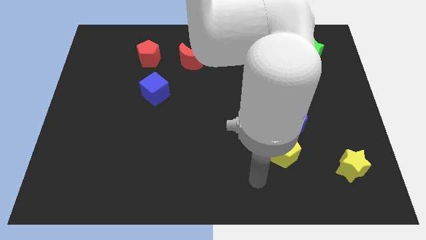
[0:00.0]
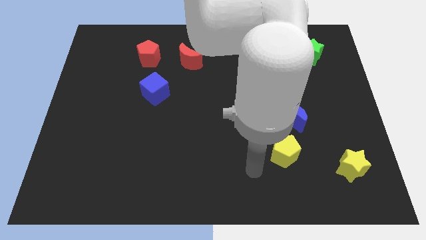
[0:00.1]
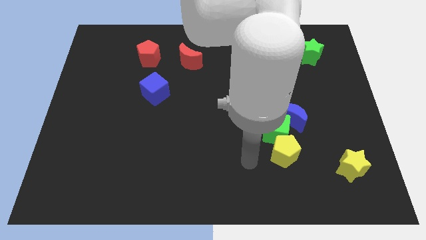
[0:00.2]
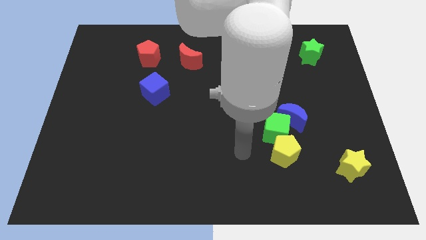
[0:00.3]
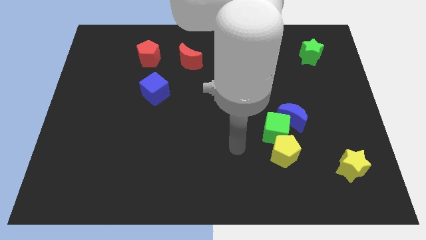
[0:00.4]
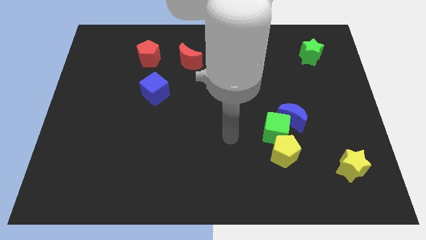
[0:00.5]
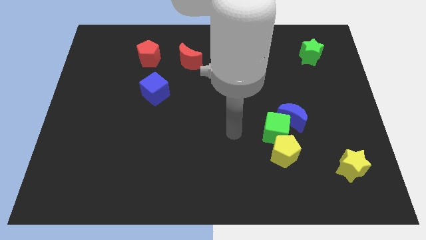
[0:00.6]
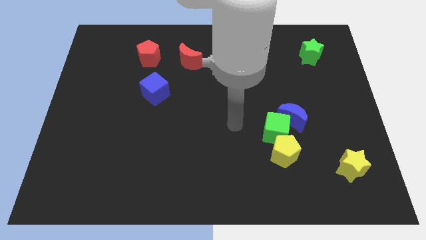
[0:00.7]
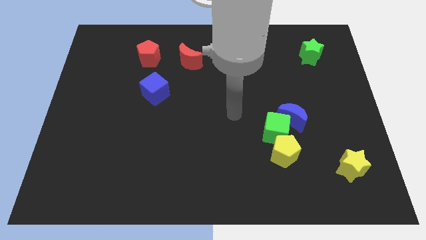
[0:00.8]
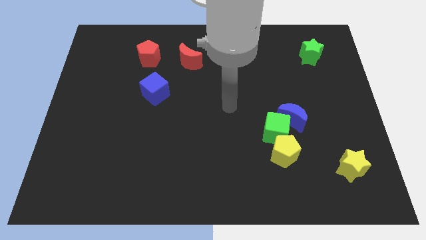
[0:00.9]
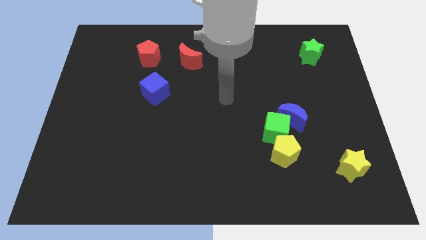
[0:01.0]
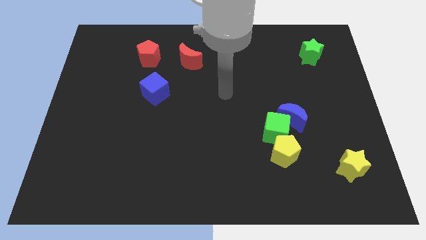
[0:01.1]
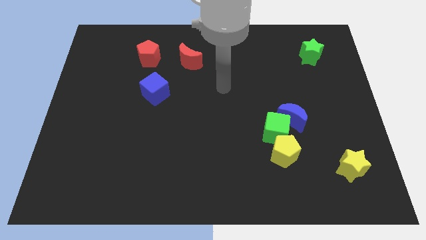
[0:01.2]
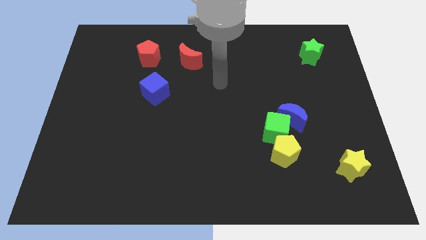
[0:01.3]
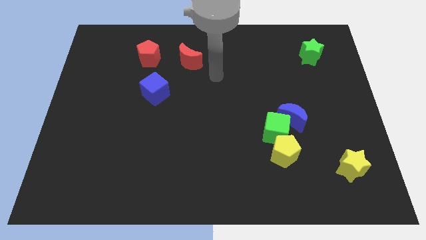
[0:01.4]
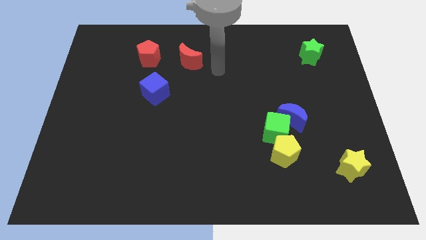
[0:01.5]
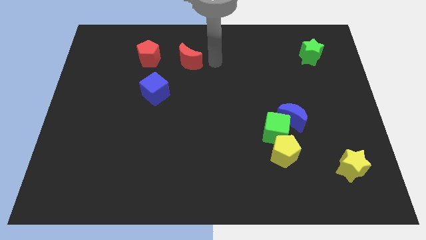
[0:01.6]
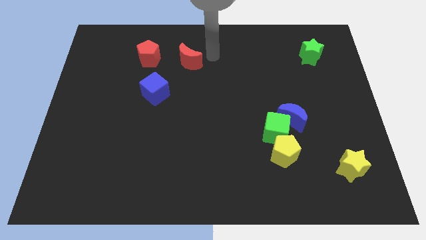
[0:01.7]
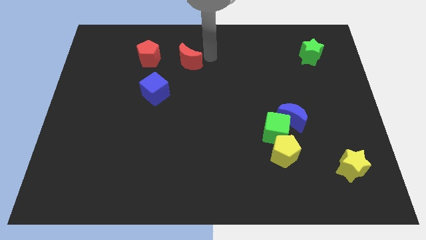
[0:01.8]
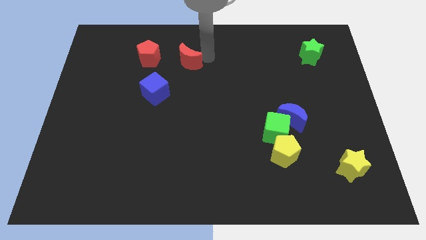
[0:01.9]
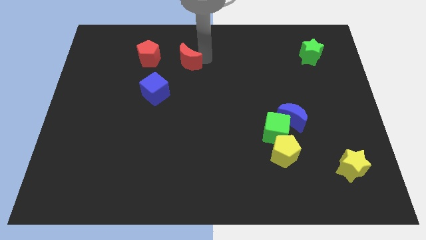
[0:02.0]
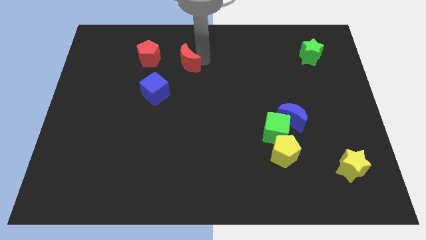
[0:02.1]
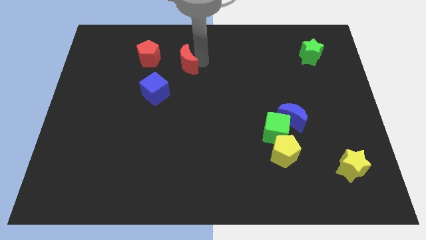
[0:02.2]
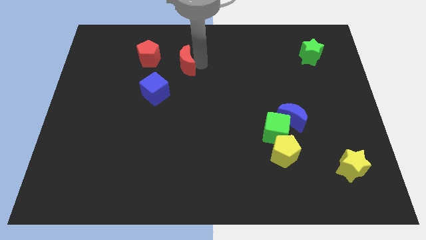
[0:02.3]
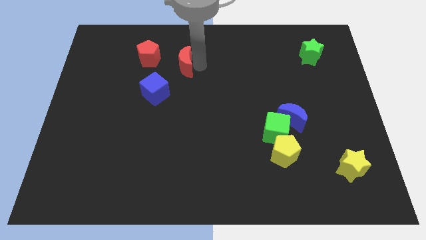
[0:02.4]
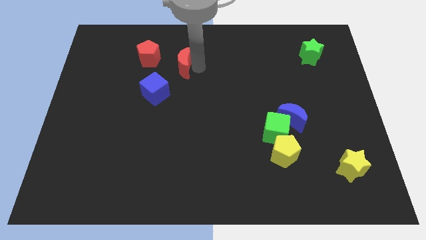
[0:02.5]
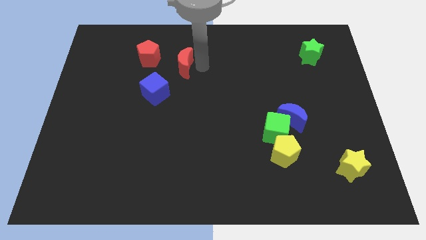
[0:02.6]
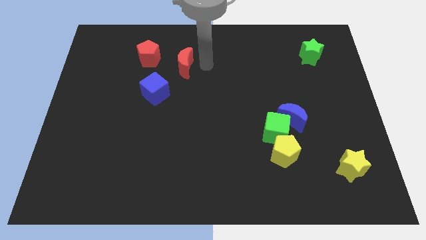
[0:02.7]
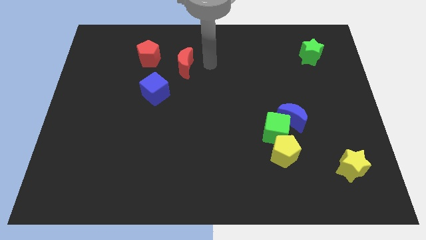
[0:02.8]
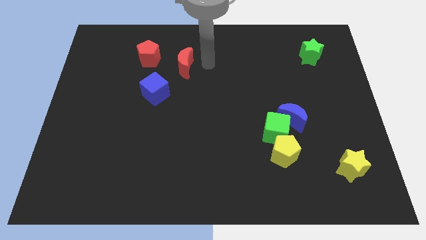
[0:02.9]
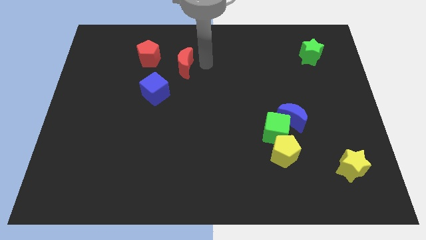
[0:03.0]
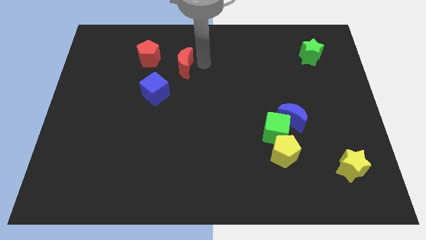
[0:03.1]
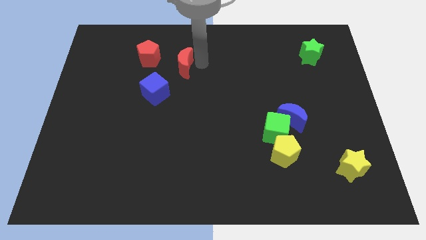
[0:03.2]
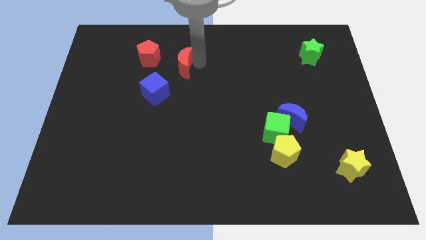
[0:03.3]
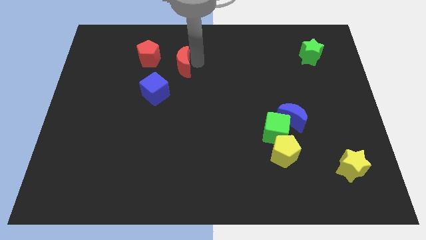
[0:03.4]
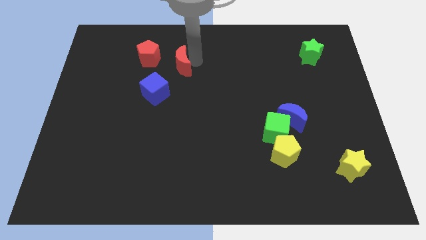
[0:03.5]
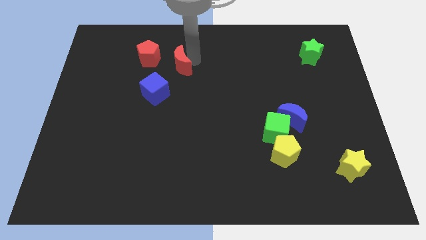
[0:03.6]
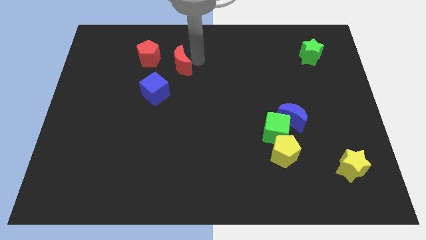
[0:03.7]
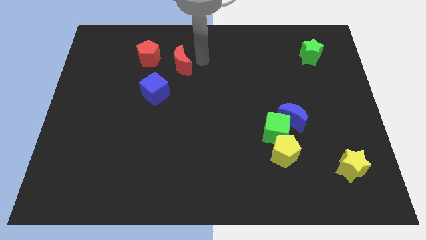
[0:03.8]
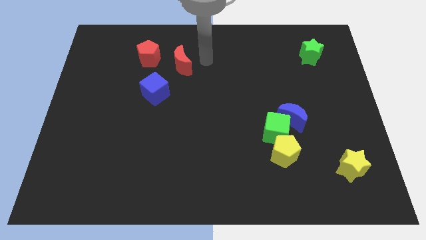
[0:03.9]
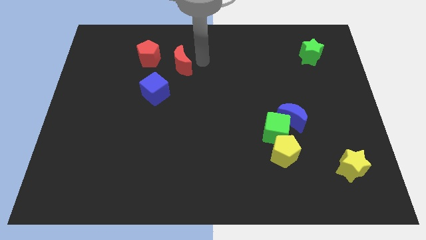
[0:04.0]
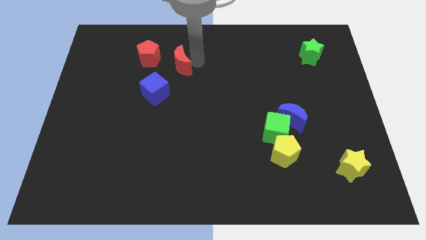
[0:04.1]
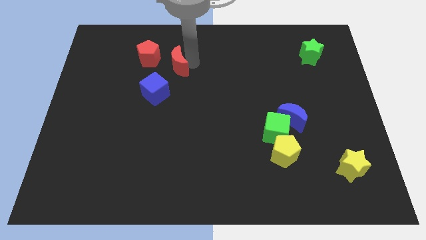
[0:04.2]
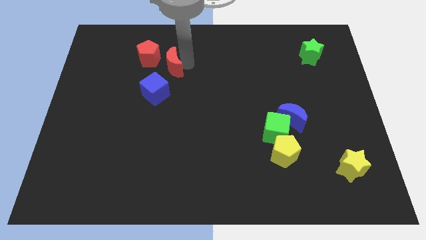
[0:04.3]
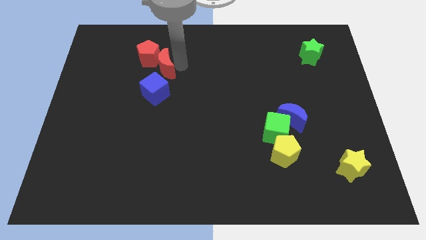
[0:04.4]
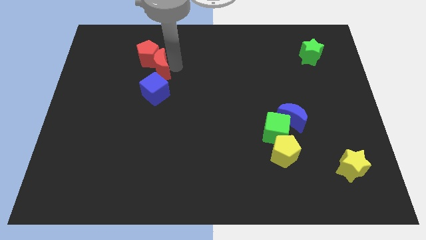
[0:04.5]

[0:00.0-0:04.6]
slide the red moon to the left somewhat

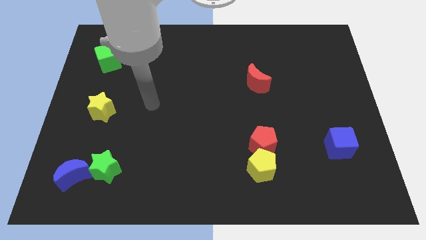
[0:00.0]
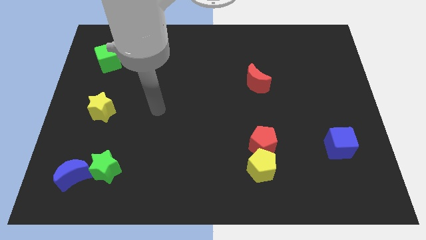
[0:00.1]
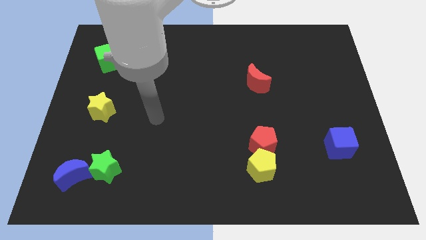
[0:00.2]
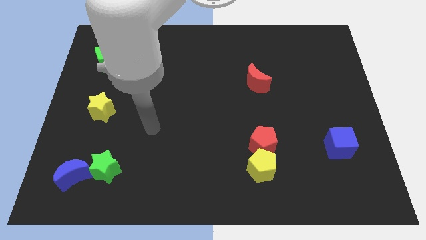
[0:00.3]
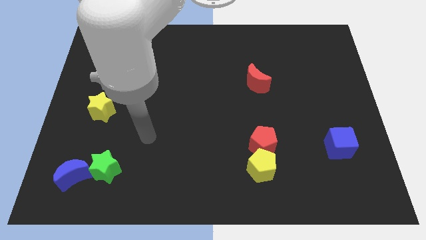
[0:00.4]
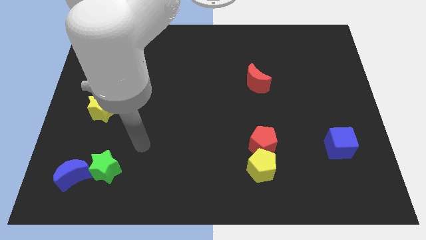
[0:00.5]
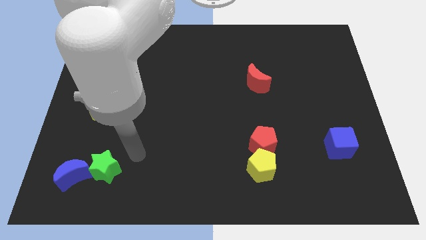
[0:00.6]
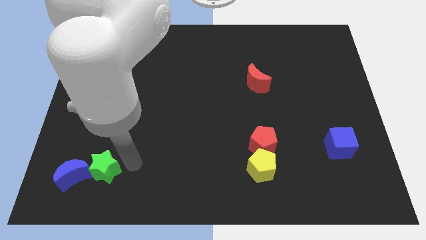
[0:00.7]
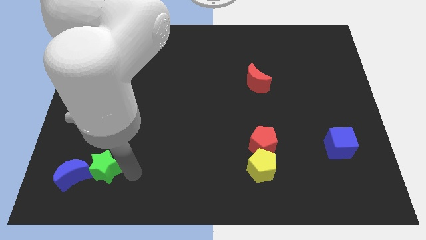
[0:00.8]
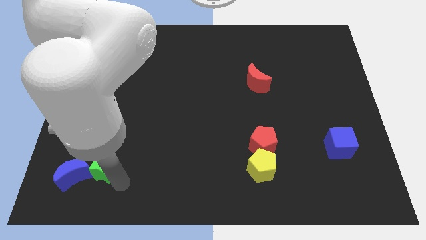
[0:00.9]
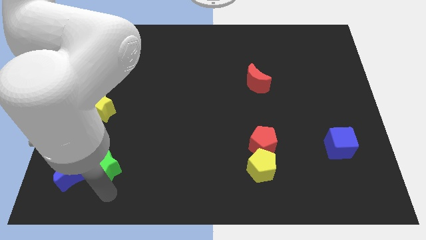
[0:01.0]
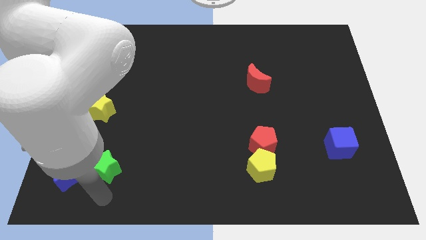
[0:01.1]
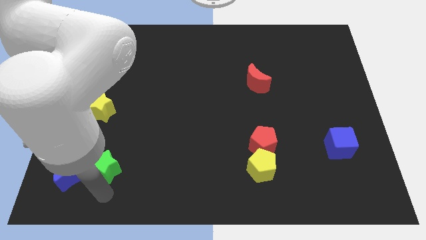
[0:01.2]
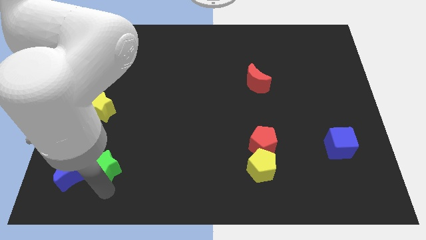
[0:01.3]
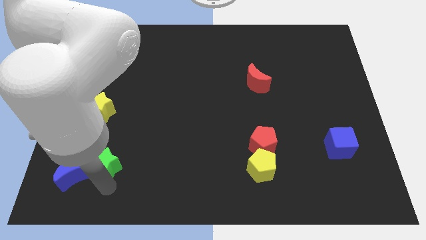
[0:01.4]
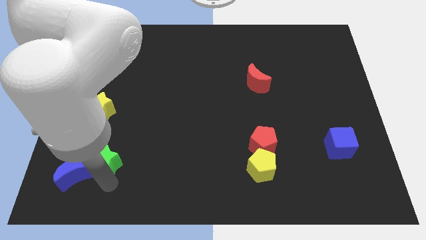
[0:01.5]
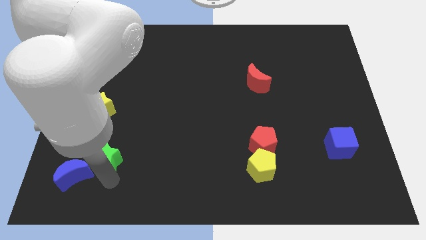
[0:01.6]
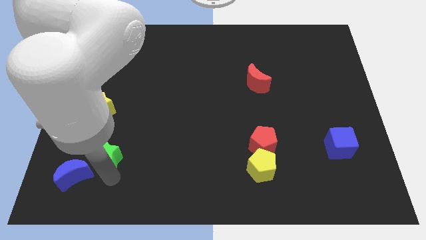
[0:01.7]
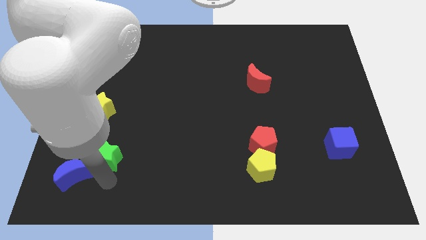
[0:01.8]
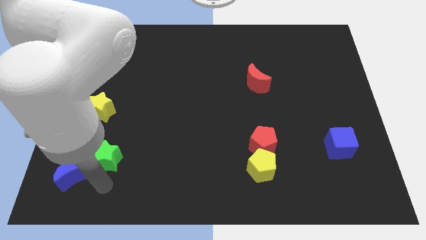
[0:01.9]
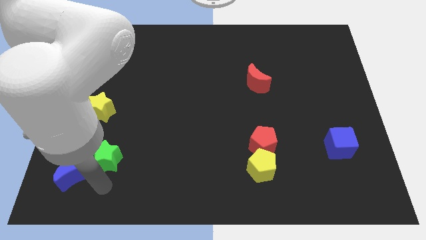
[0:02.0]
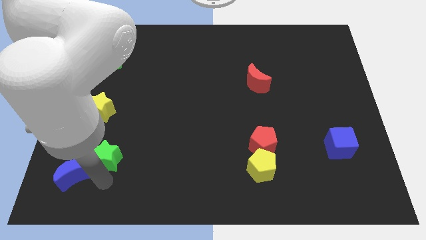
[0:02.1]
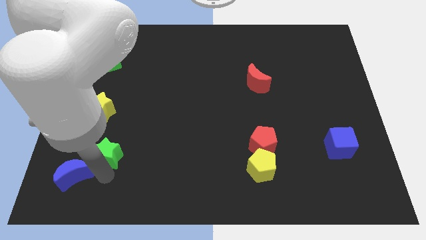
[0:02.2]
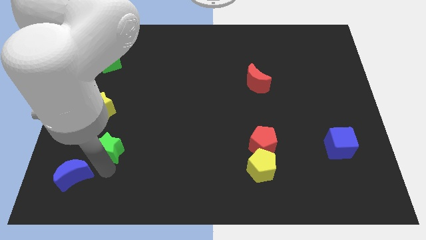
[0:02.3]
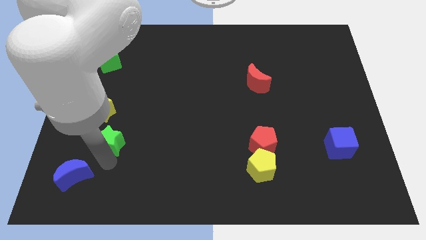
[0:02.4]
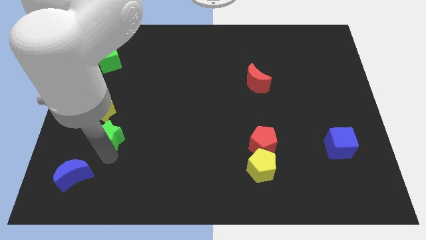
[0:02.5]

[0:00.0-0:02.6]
slightly push the green star upwards

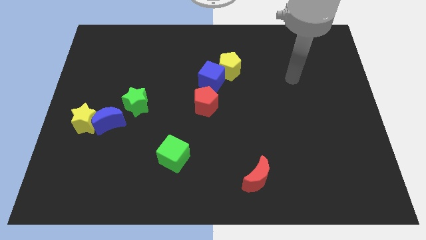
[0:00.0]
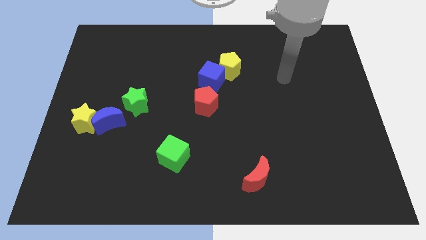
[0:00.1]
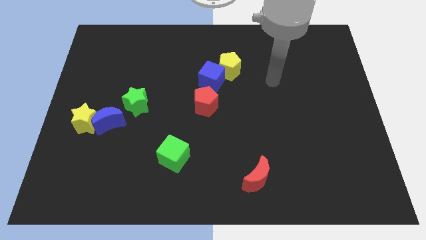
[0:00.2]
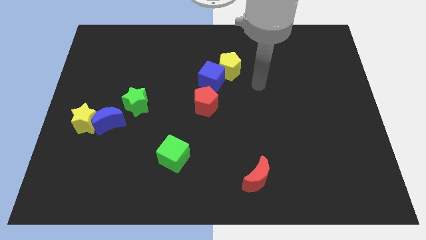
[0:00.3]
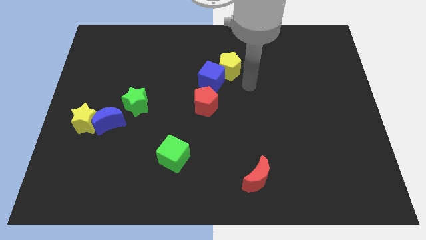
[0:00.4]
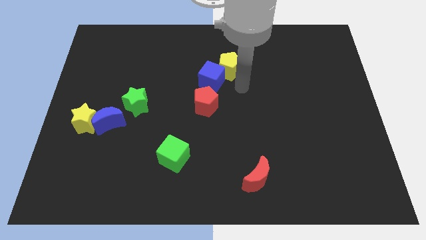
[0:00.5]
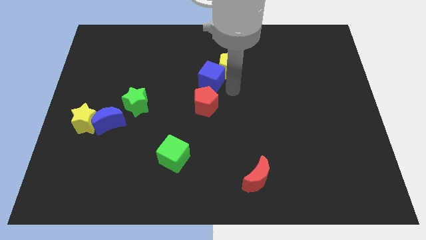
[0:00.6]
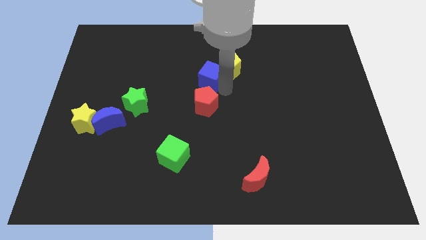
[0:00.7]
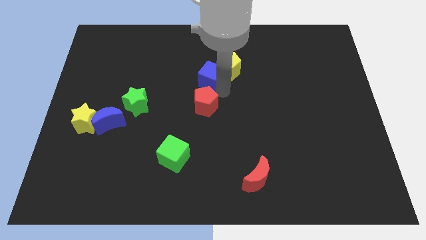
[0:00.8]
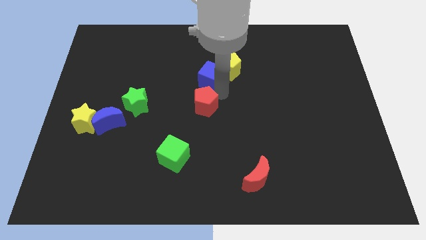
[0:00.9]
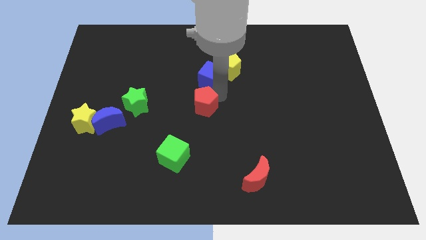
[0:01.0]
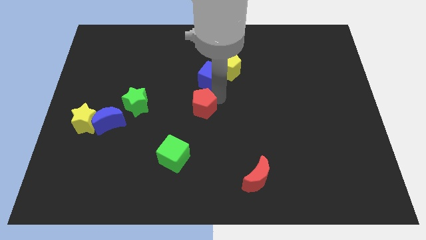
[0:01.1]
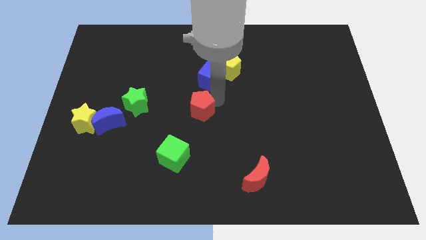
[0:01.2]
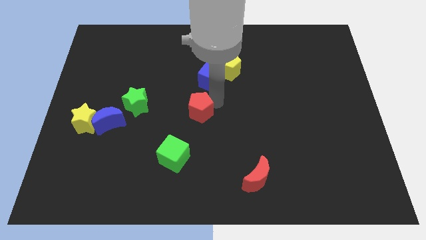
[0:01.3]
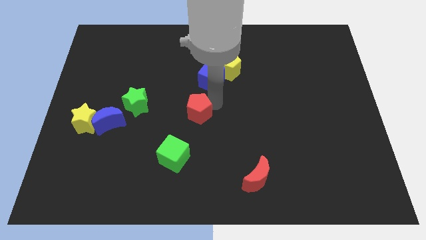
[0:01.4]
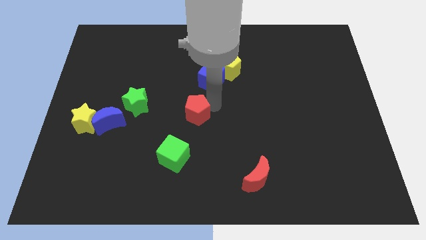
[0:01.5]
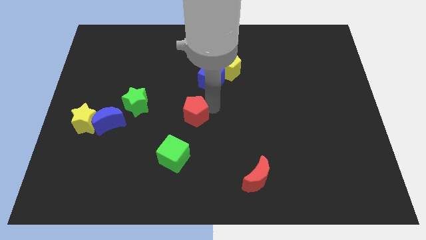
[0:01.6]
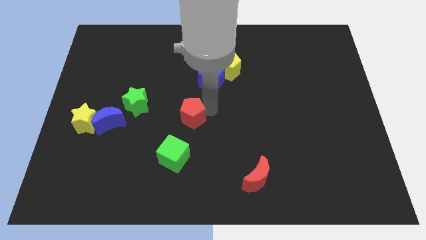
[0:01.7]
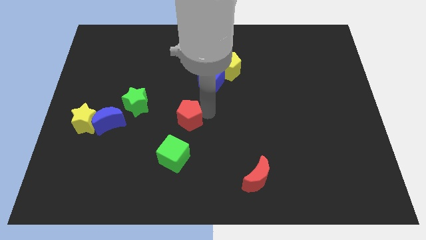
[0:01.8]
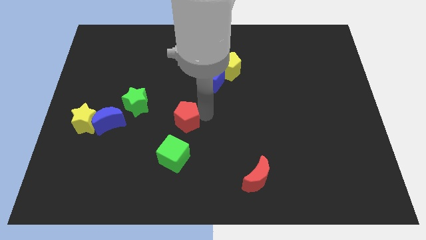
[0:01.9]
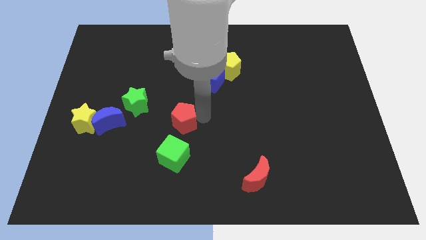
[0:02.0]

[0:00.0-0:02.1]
slightly push the red pentagon downwards and left
